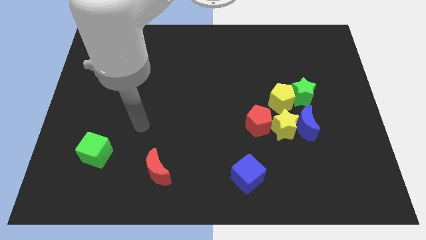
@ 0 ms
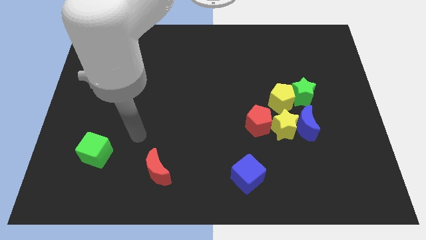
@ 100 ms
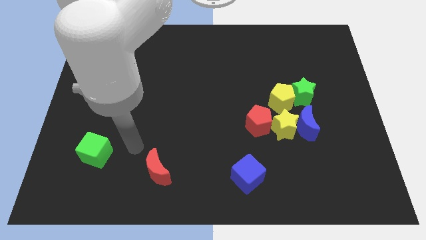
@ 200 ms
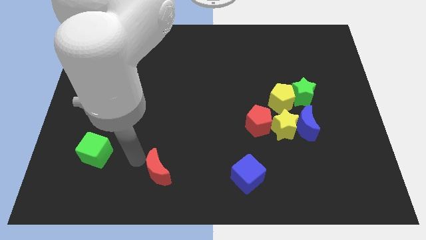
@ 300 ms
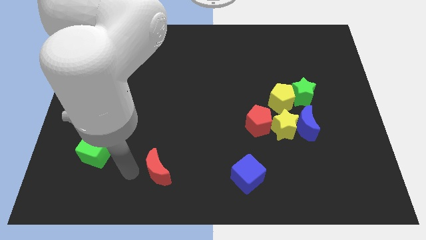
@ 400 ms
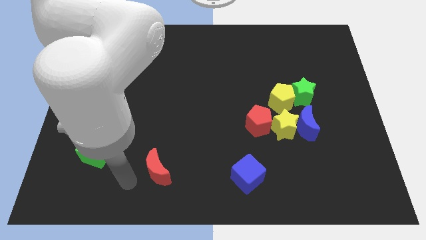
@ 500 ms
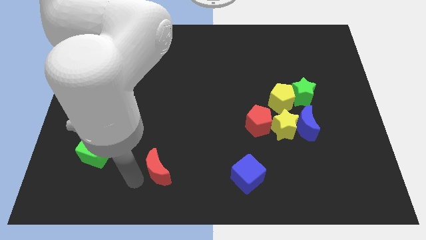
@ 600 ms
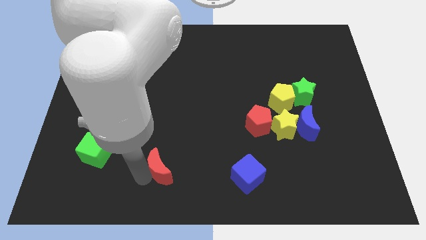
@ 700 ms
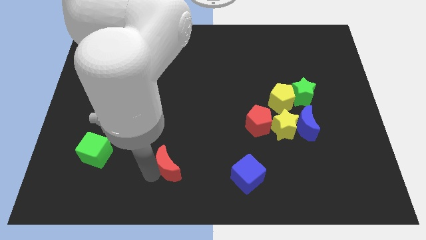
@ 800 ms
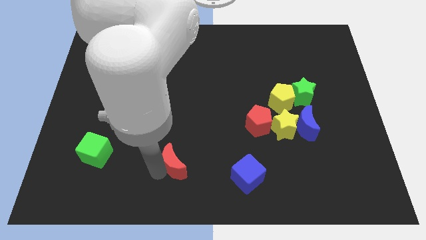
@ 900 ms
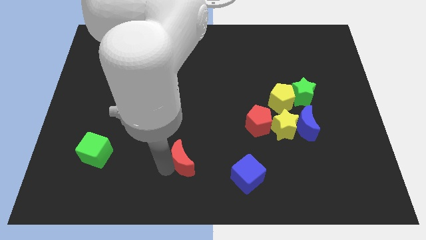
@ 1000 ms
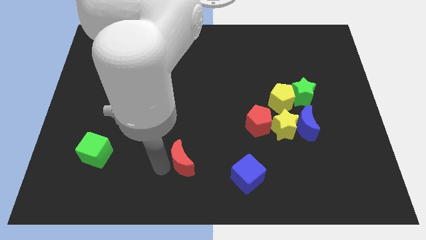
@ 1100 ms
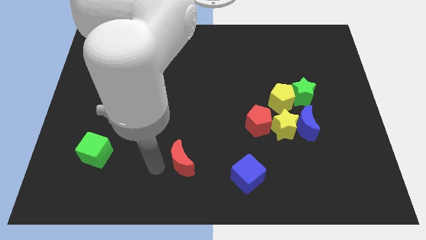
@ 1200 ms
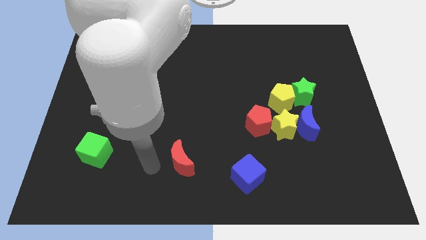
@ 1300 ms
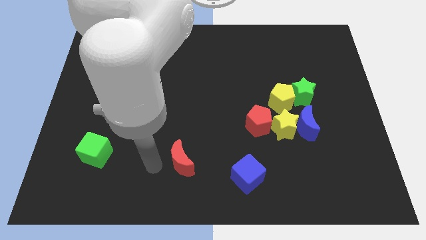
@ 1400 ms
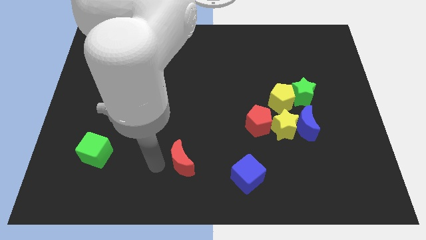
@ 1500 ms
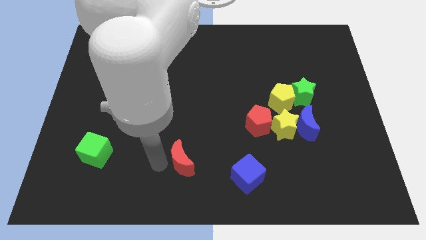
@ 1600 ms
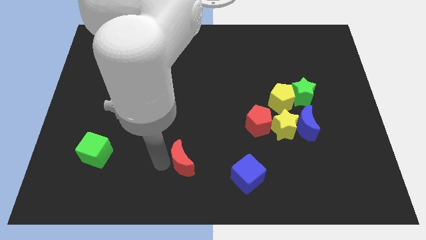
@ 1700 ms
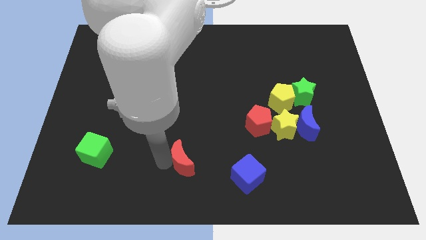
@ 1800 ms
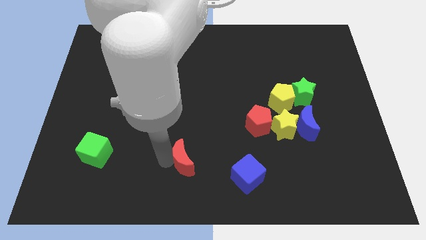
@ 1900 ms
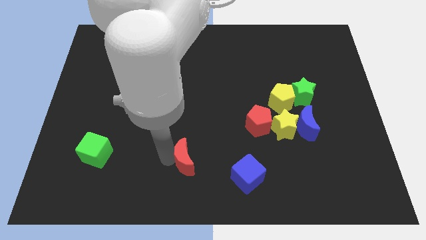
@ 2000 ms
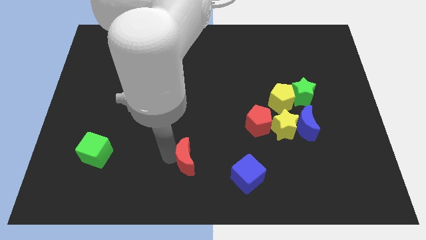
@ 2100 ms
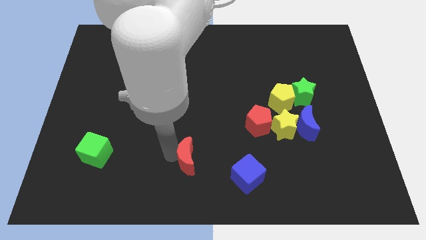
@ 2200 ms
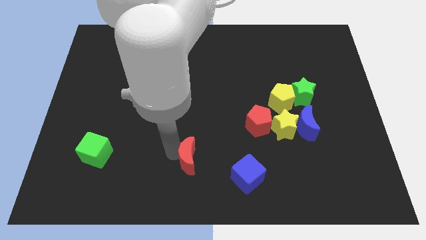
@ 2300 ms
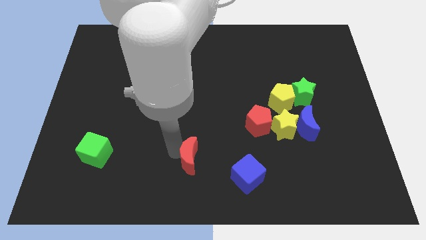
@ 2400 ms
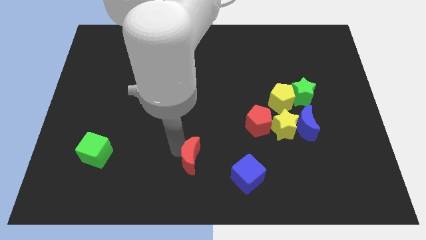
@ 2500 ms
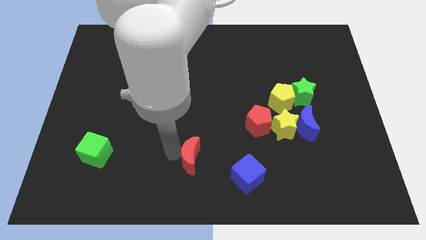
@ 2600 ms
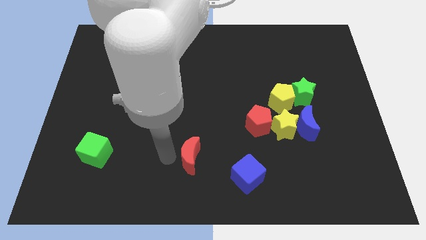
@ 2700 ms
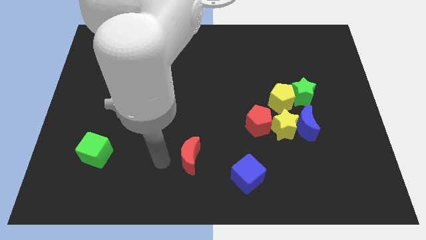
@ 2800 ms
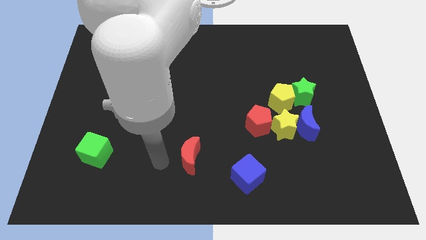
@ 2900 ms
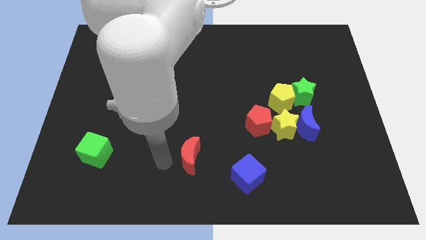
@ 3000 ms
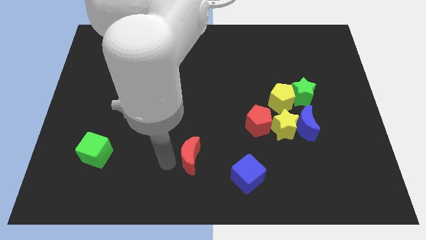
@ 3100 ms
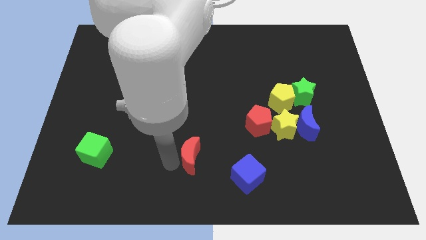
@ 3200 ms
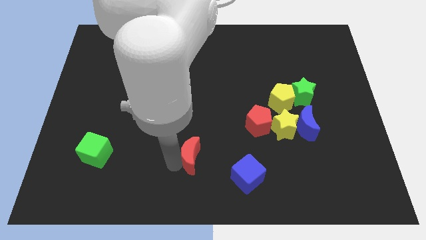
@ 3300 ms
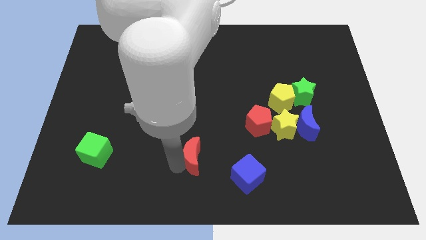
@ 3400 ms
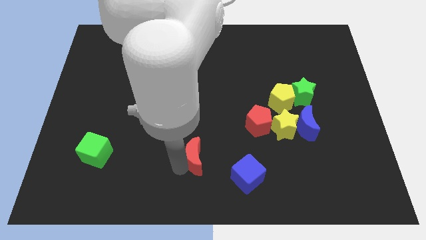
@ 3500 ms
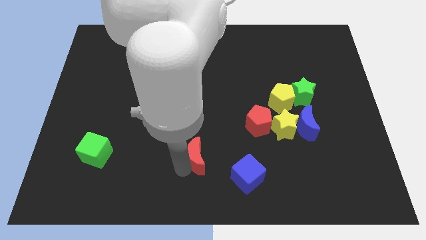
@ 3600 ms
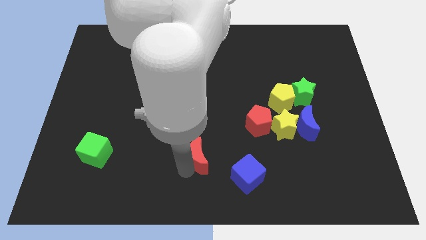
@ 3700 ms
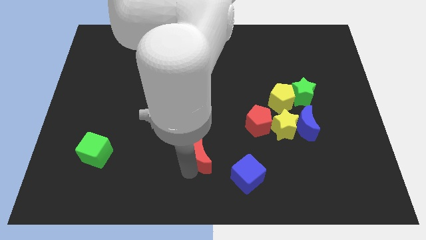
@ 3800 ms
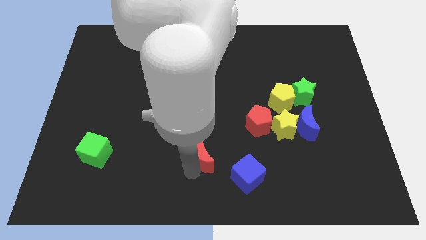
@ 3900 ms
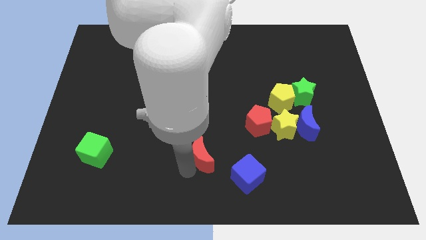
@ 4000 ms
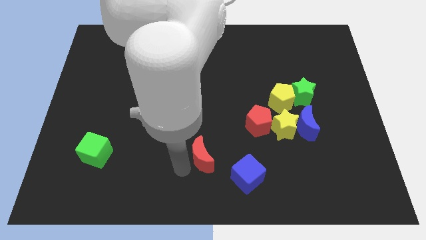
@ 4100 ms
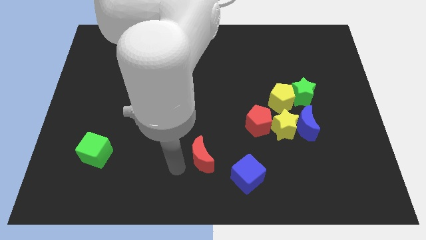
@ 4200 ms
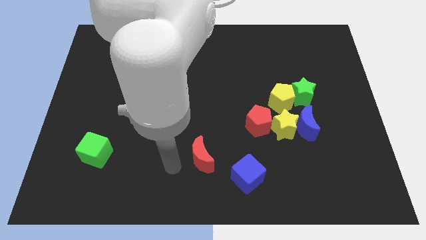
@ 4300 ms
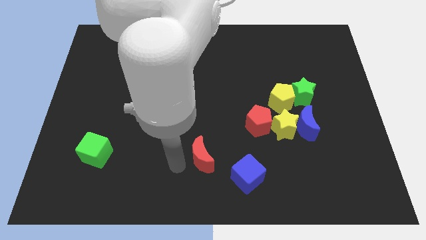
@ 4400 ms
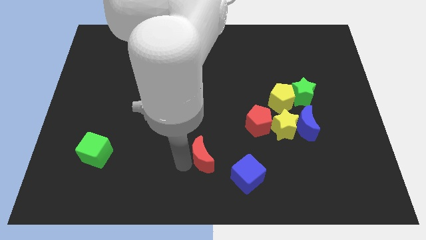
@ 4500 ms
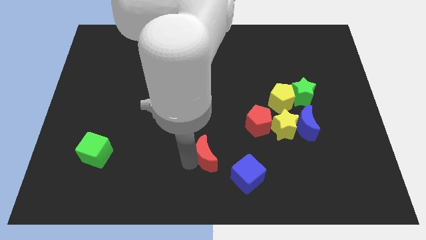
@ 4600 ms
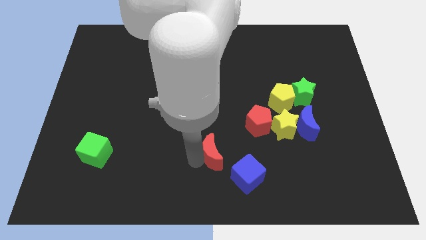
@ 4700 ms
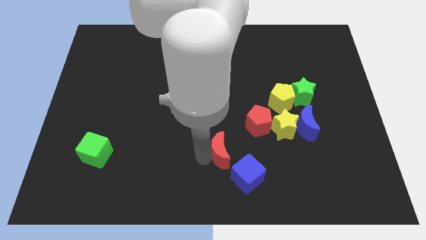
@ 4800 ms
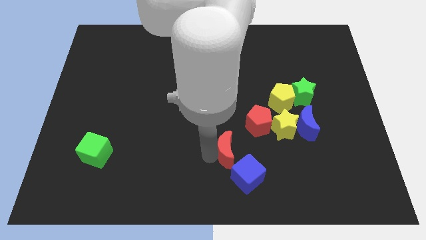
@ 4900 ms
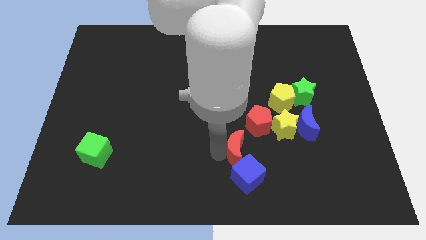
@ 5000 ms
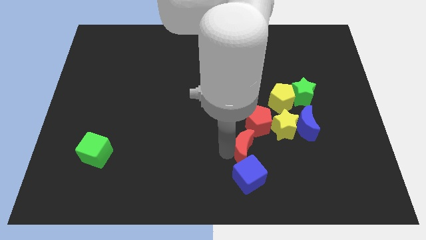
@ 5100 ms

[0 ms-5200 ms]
put the red moon diagonally down and to the left of the yellow star

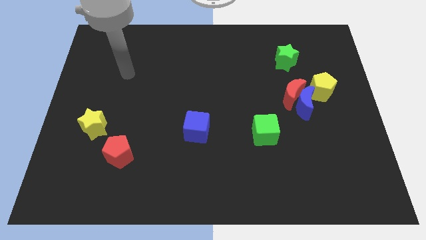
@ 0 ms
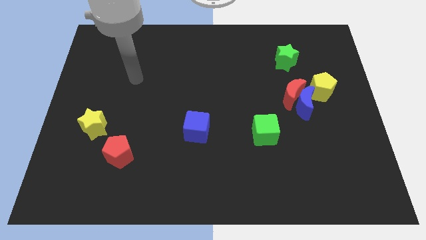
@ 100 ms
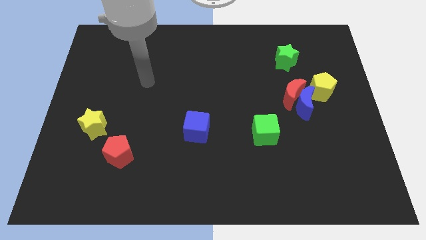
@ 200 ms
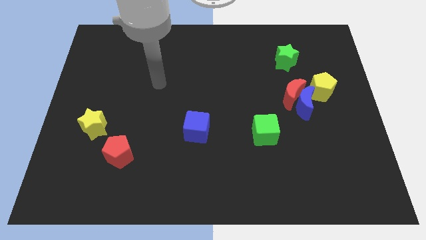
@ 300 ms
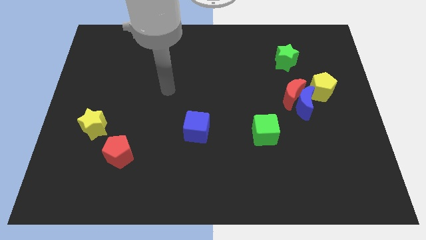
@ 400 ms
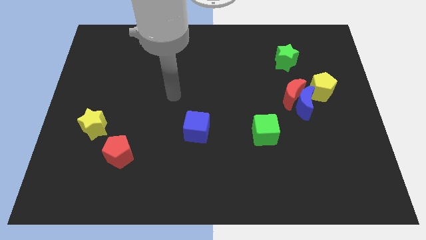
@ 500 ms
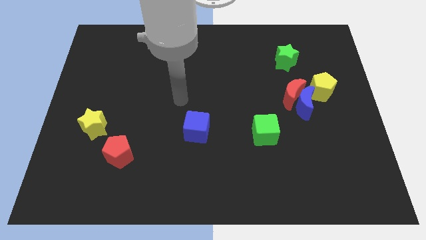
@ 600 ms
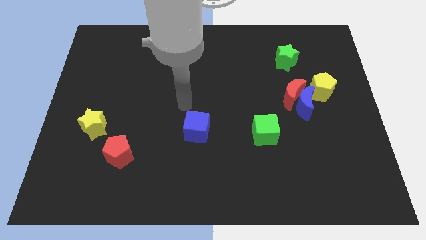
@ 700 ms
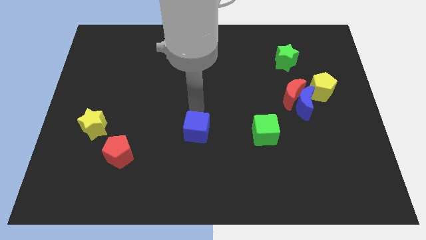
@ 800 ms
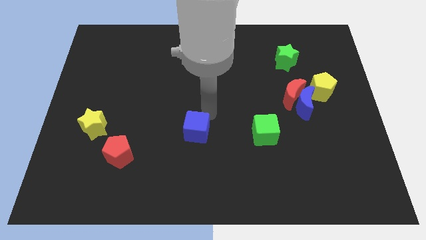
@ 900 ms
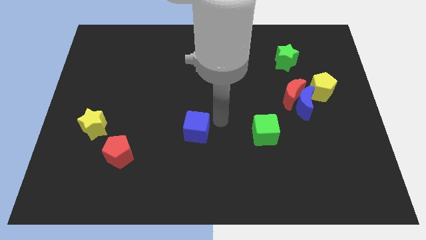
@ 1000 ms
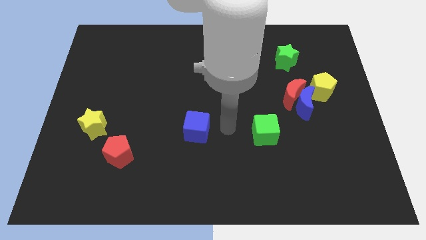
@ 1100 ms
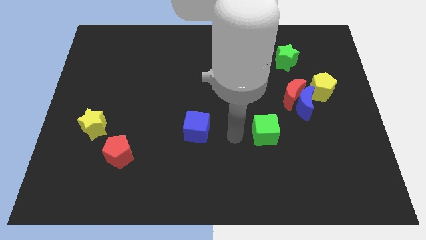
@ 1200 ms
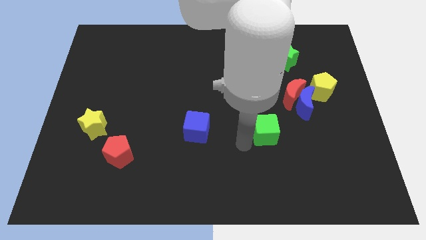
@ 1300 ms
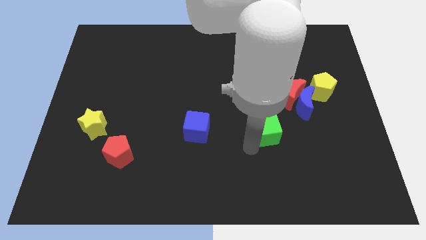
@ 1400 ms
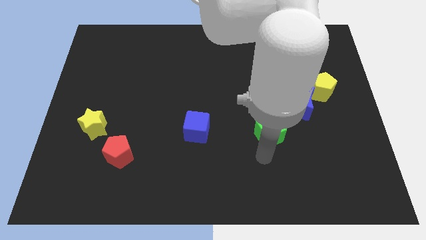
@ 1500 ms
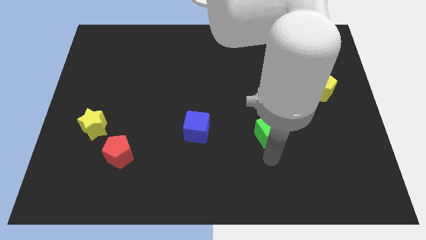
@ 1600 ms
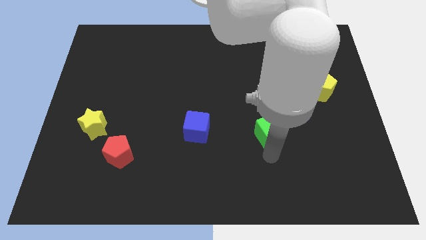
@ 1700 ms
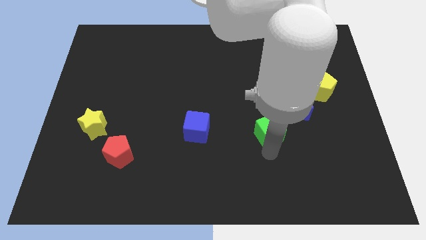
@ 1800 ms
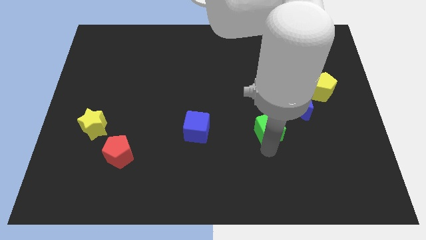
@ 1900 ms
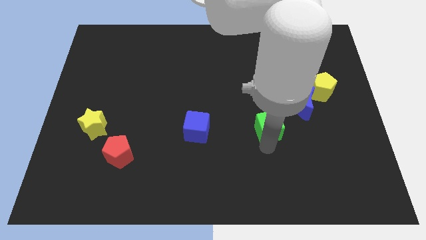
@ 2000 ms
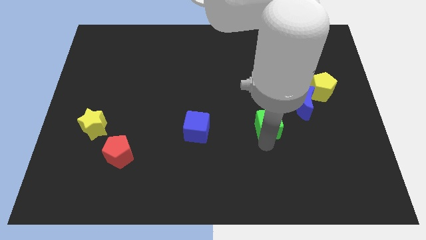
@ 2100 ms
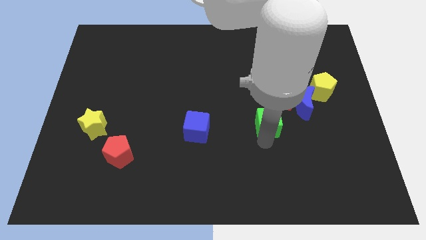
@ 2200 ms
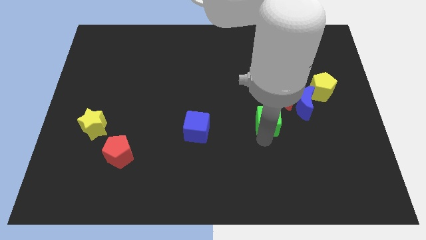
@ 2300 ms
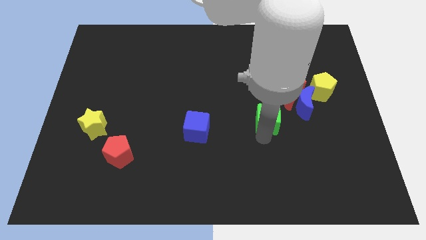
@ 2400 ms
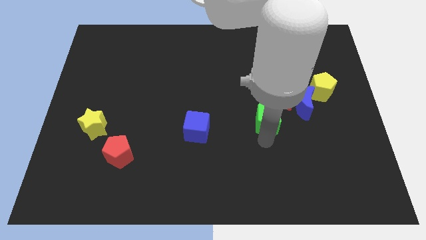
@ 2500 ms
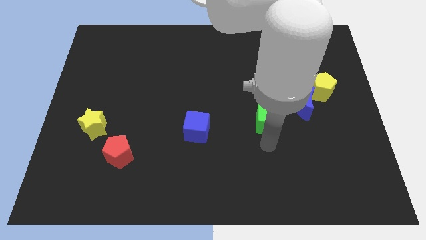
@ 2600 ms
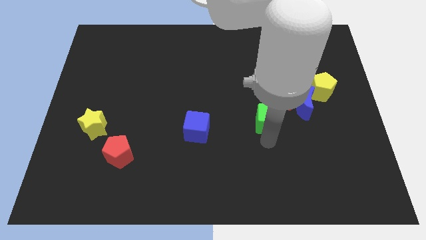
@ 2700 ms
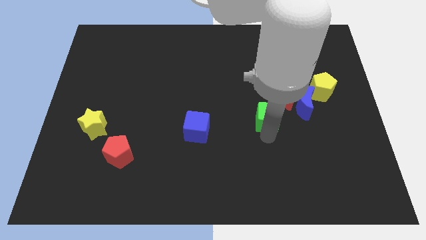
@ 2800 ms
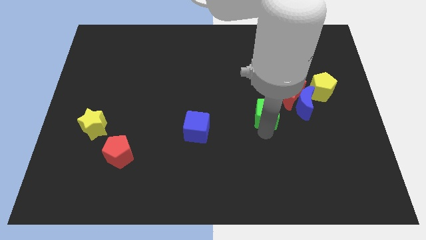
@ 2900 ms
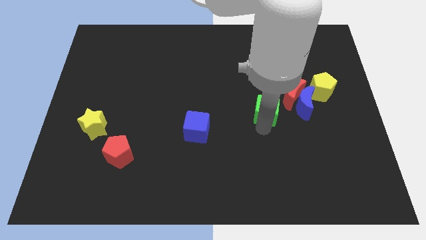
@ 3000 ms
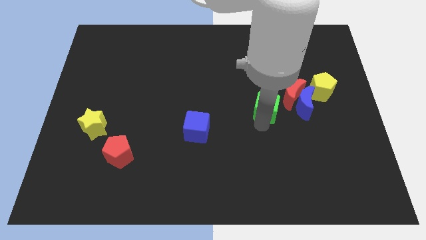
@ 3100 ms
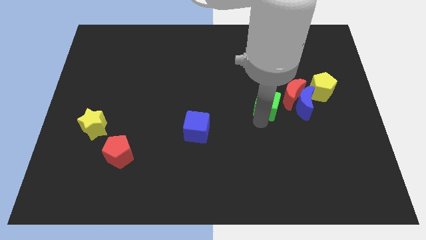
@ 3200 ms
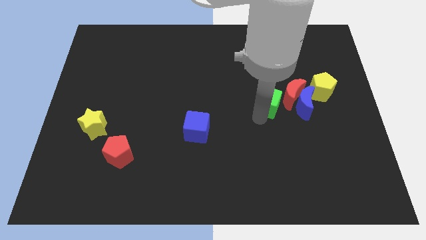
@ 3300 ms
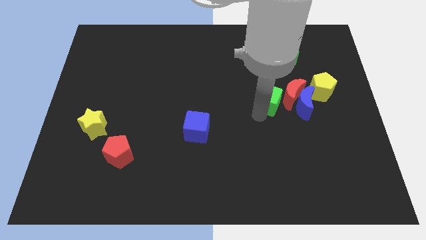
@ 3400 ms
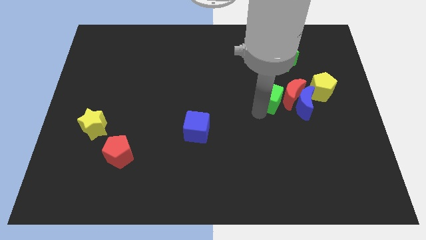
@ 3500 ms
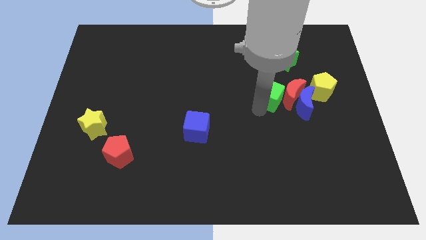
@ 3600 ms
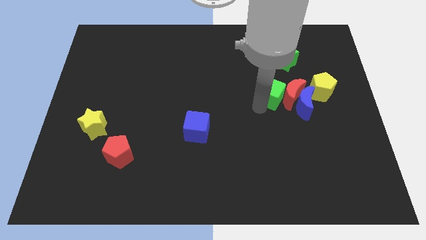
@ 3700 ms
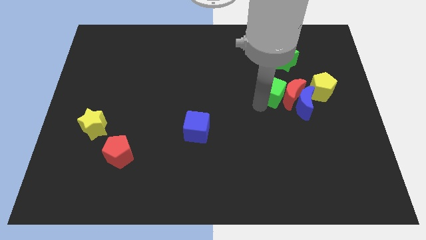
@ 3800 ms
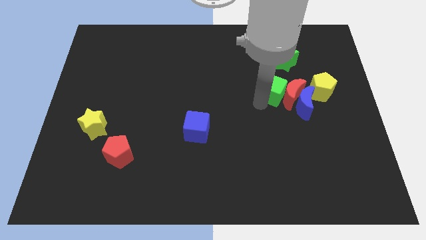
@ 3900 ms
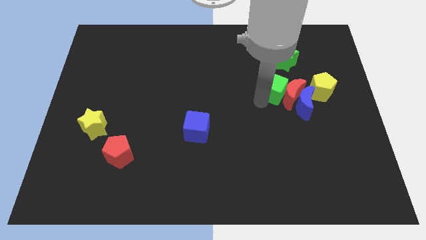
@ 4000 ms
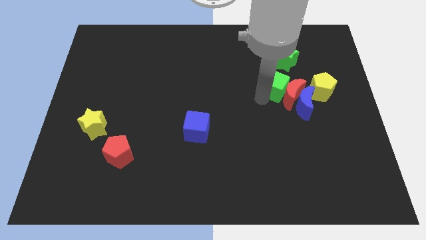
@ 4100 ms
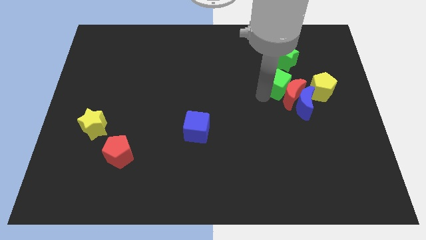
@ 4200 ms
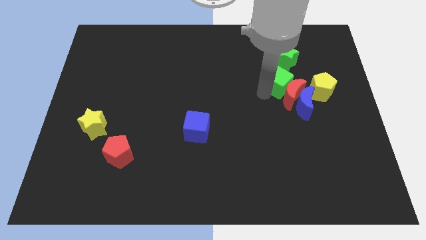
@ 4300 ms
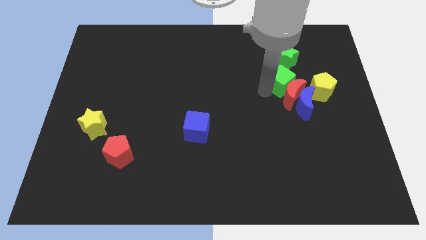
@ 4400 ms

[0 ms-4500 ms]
slide the green cube above the blue moon
